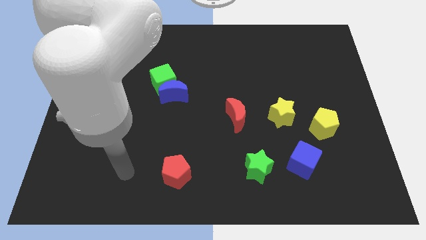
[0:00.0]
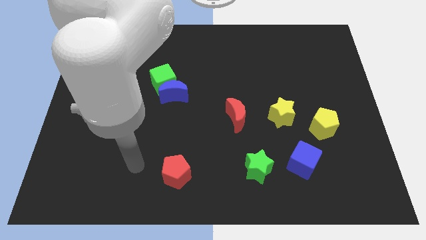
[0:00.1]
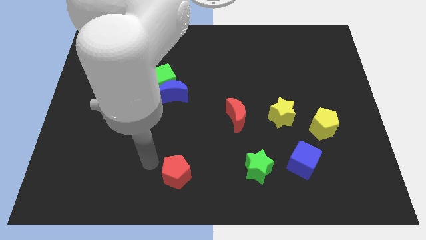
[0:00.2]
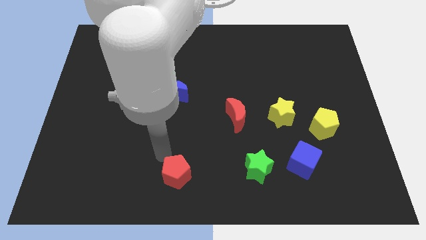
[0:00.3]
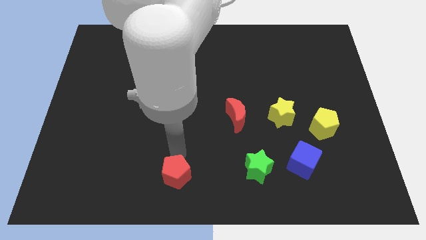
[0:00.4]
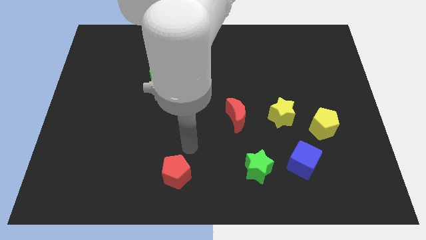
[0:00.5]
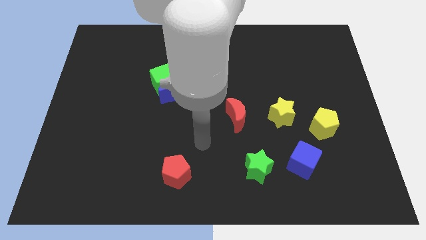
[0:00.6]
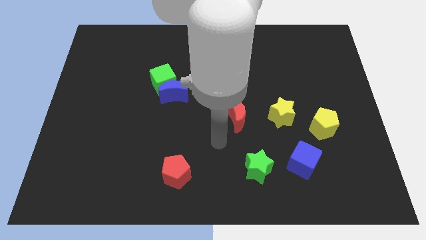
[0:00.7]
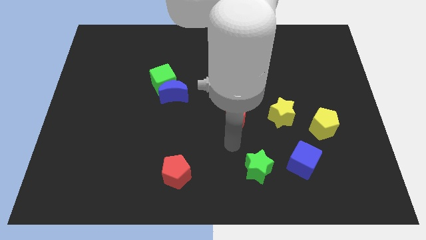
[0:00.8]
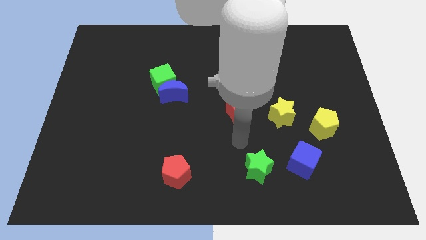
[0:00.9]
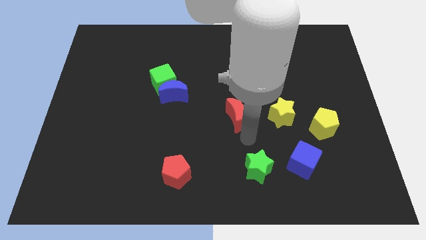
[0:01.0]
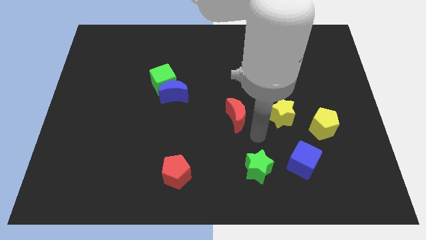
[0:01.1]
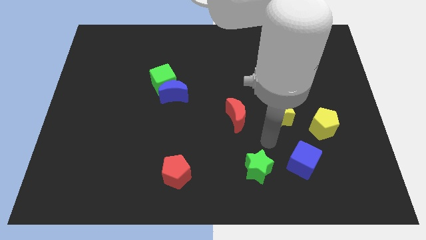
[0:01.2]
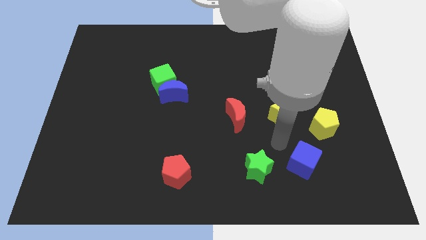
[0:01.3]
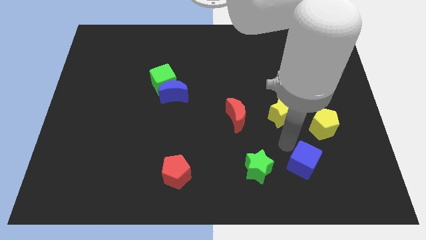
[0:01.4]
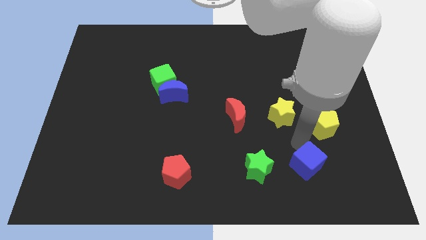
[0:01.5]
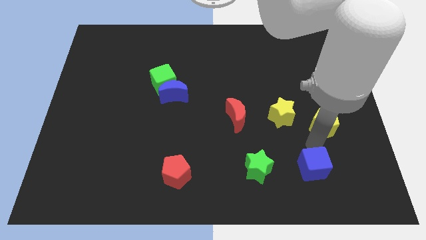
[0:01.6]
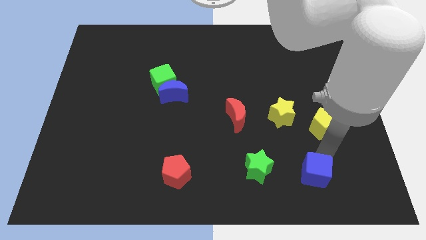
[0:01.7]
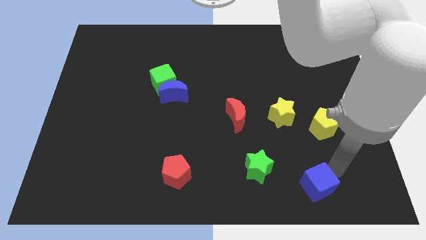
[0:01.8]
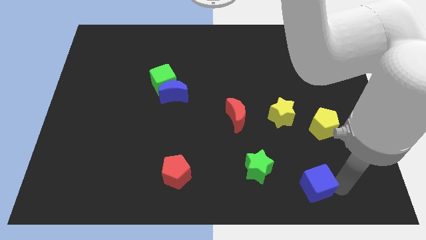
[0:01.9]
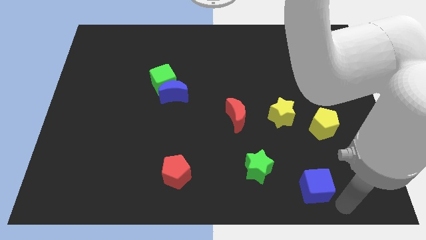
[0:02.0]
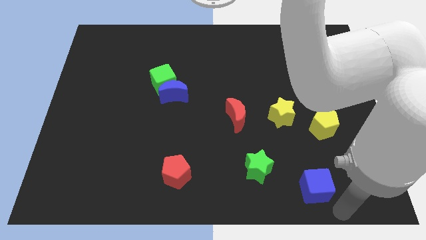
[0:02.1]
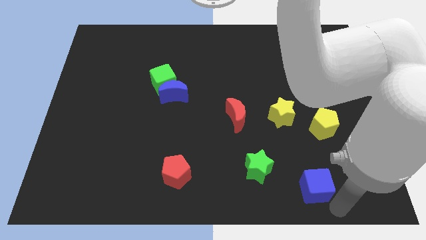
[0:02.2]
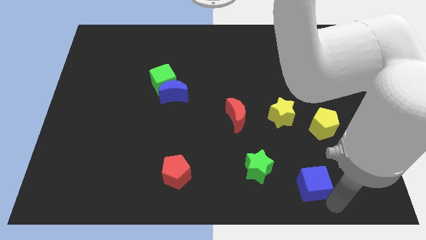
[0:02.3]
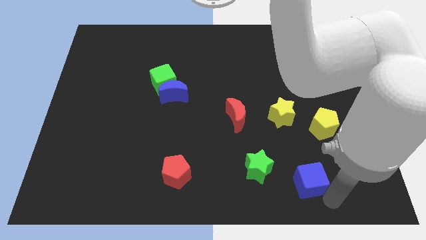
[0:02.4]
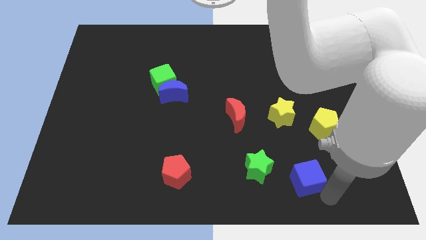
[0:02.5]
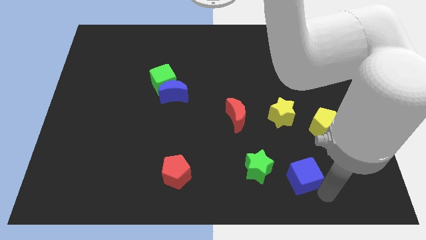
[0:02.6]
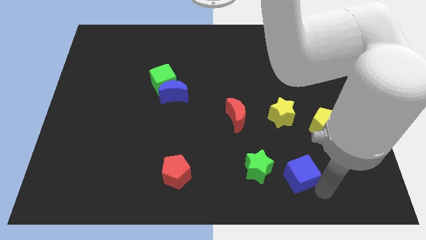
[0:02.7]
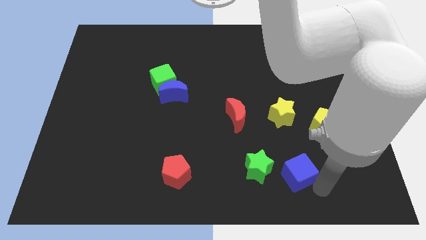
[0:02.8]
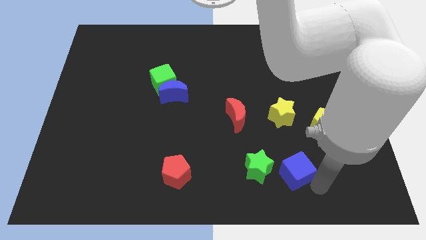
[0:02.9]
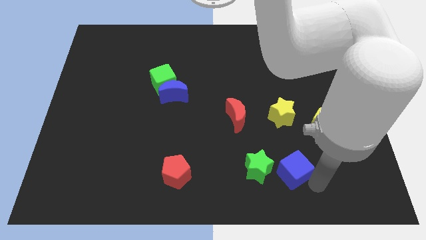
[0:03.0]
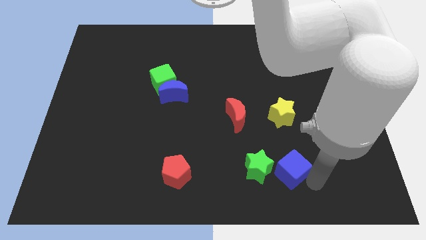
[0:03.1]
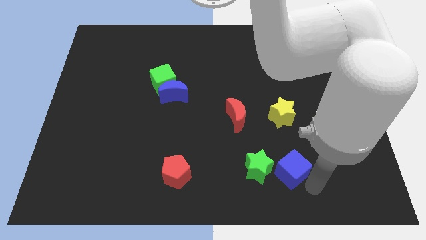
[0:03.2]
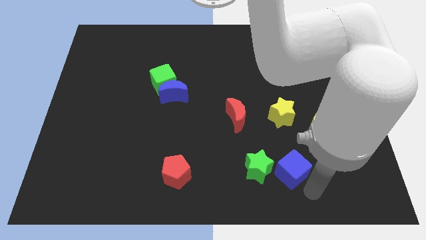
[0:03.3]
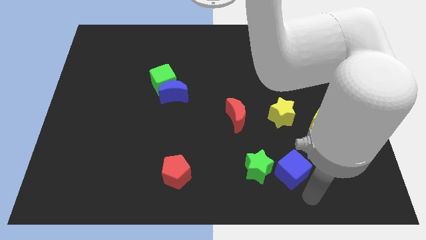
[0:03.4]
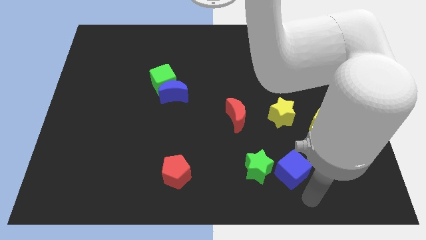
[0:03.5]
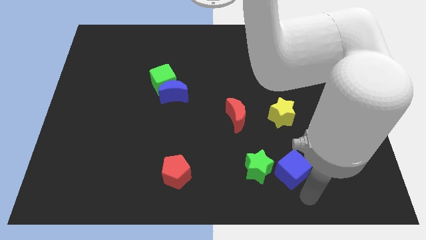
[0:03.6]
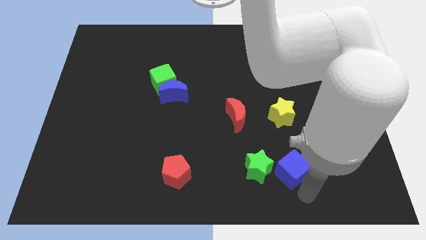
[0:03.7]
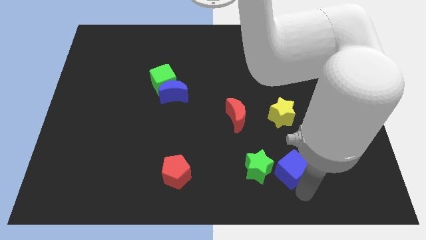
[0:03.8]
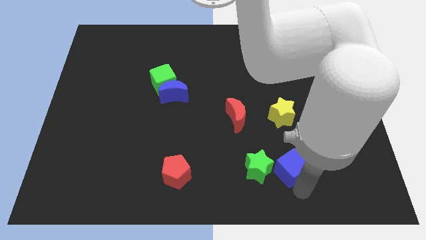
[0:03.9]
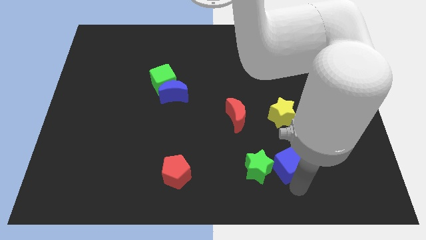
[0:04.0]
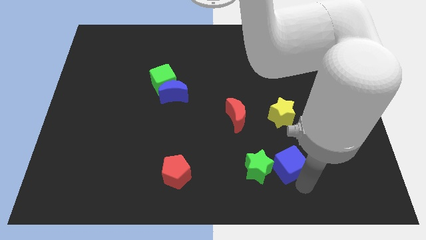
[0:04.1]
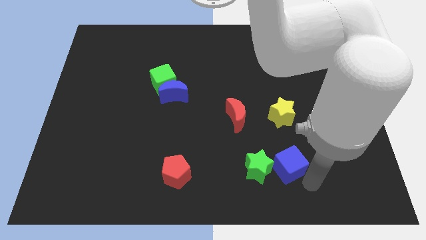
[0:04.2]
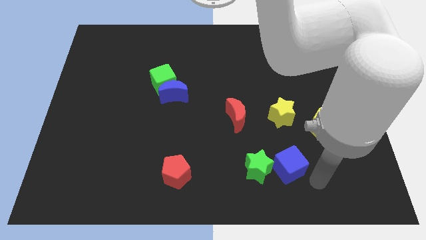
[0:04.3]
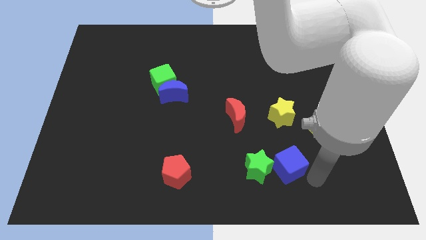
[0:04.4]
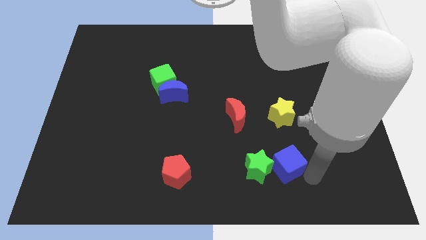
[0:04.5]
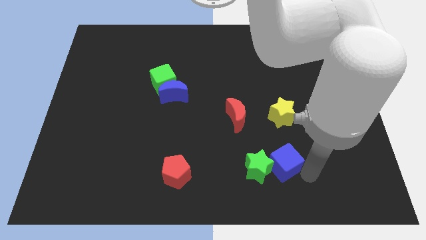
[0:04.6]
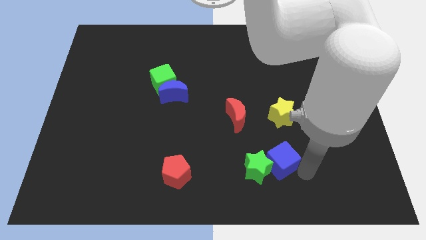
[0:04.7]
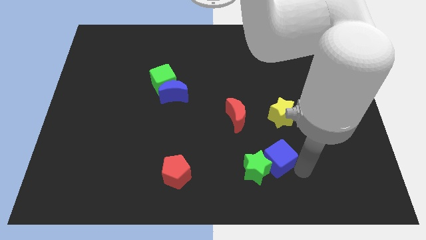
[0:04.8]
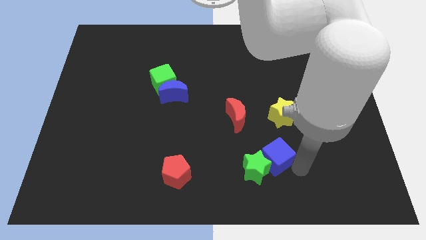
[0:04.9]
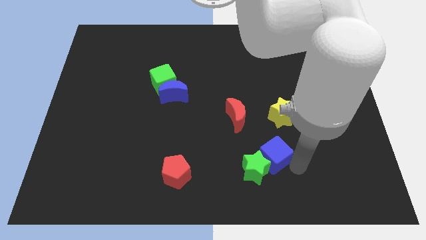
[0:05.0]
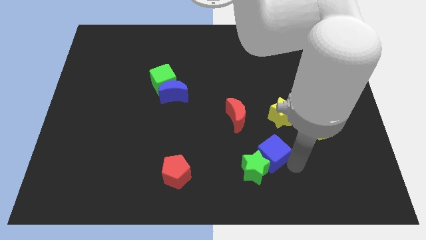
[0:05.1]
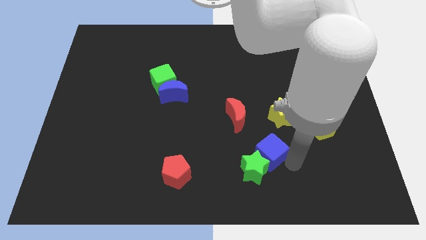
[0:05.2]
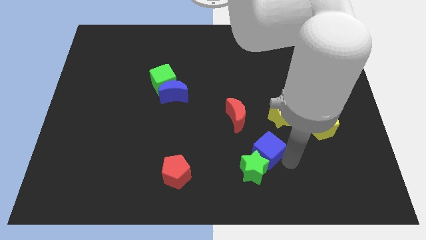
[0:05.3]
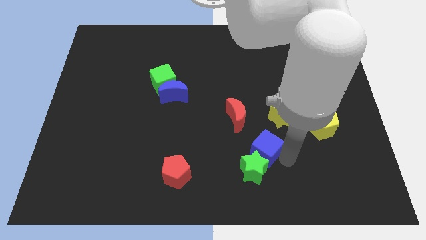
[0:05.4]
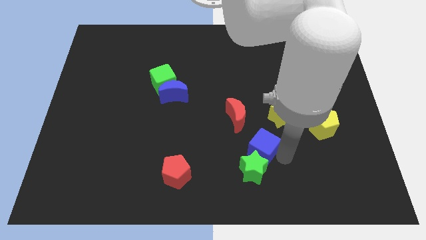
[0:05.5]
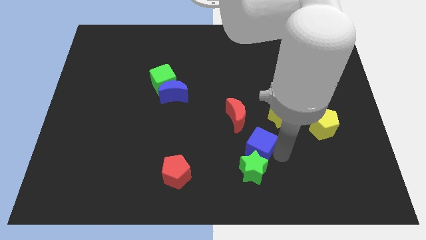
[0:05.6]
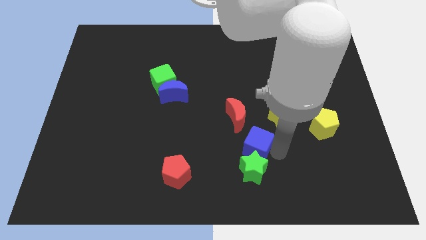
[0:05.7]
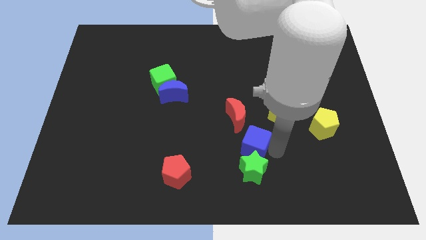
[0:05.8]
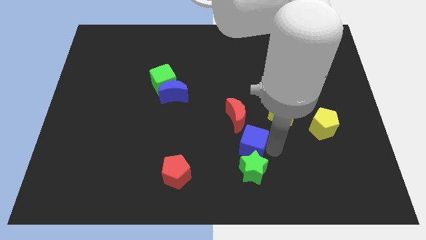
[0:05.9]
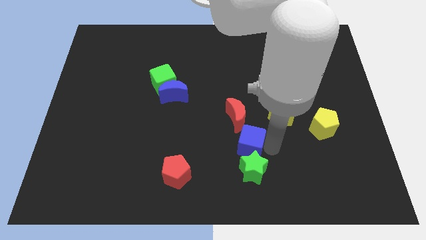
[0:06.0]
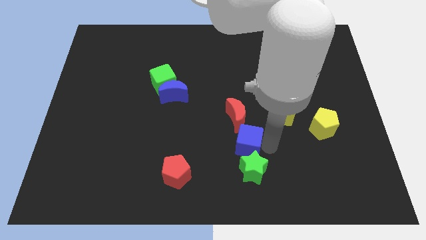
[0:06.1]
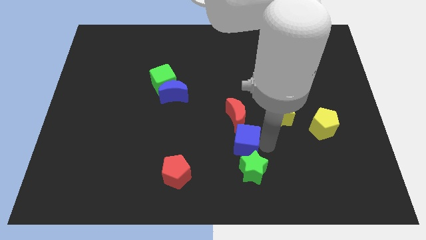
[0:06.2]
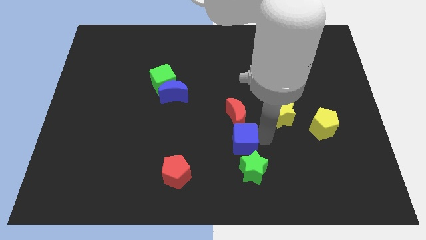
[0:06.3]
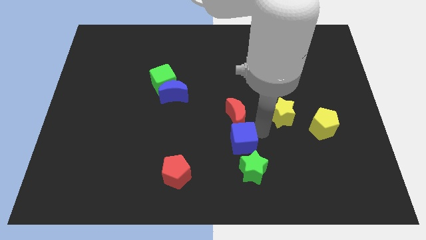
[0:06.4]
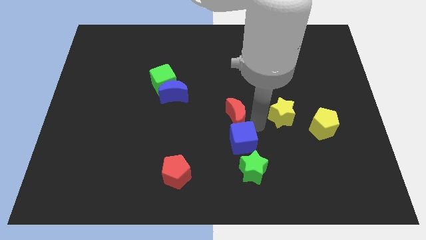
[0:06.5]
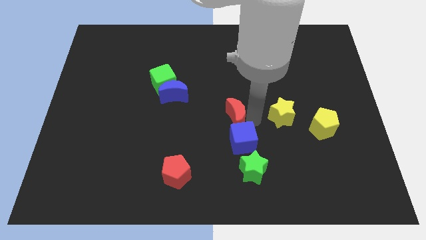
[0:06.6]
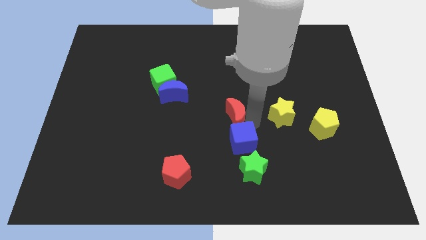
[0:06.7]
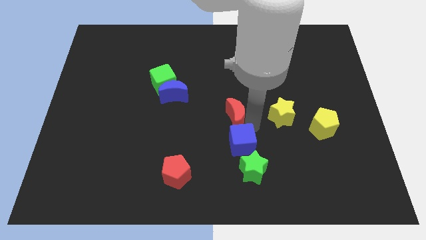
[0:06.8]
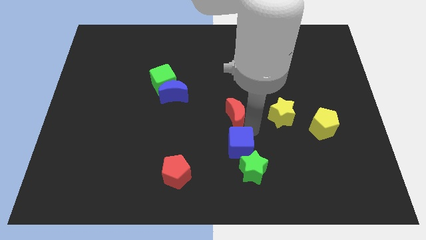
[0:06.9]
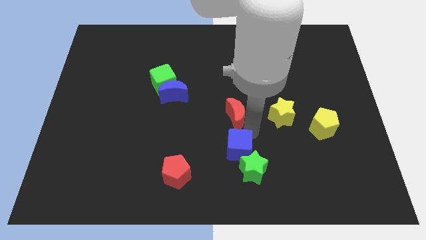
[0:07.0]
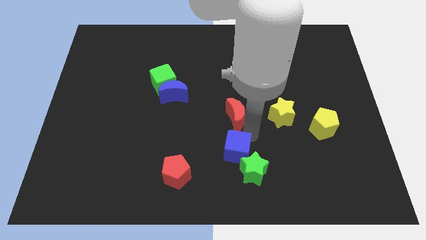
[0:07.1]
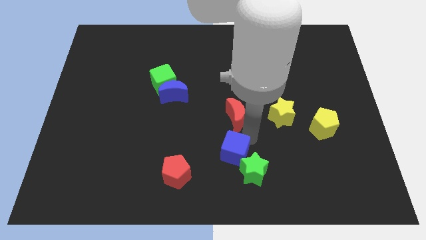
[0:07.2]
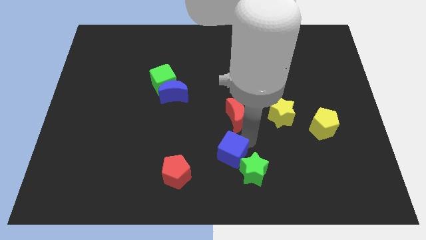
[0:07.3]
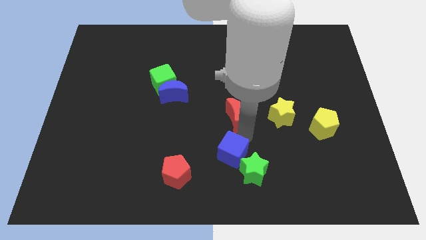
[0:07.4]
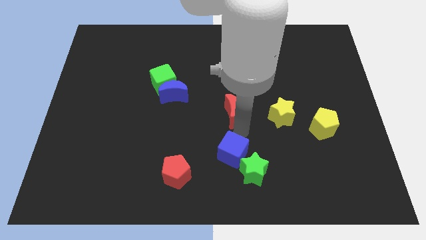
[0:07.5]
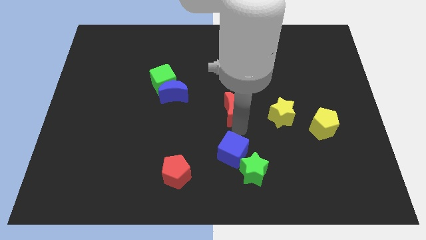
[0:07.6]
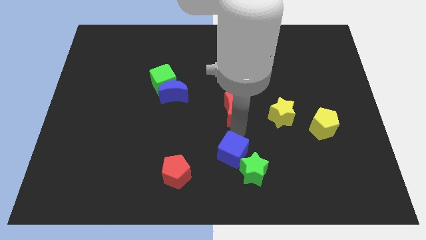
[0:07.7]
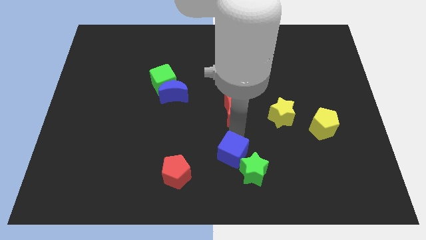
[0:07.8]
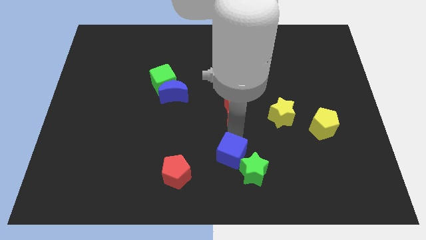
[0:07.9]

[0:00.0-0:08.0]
put the blue cube to the right side of the red pentagon
